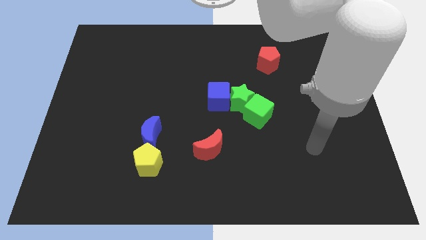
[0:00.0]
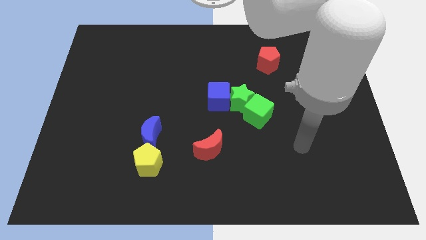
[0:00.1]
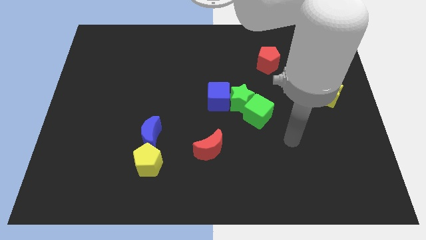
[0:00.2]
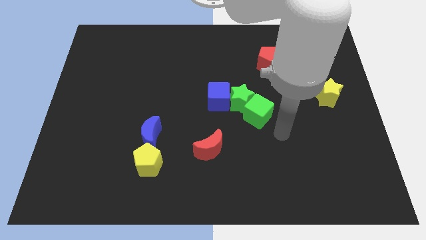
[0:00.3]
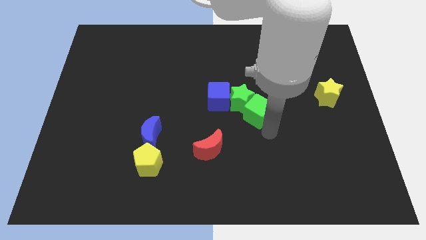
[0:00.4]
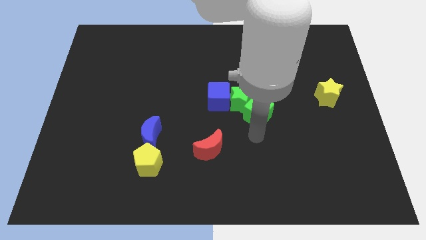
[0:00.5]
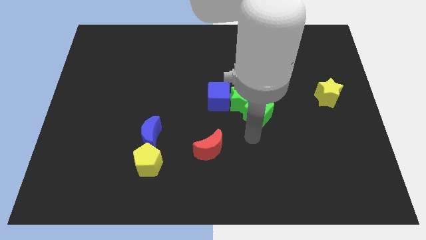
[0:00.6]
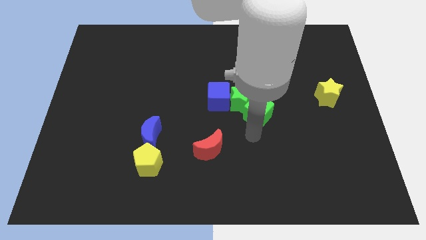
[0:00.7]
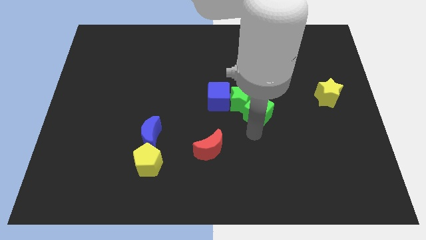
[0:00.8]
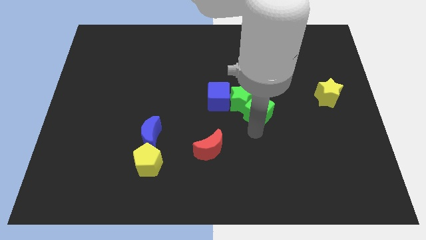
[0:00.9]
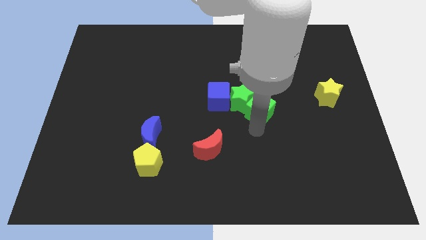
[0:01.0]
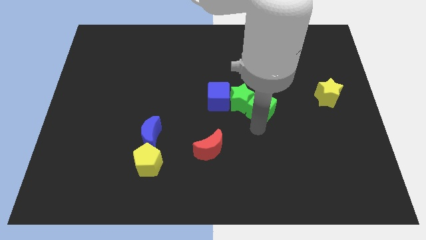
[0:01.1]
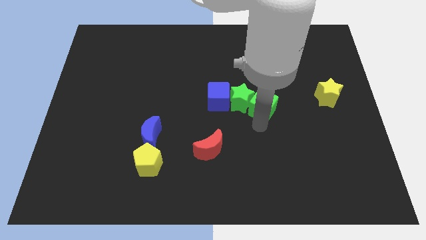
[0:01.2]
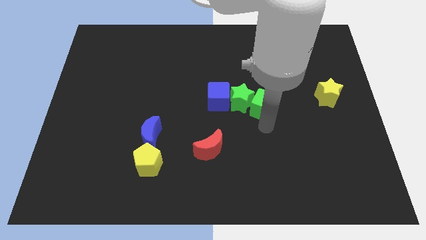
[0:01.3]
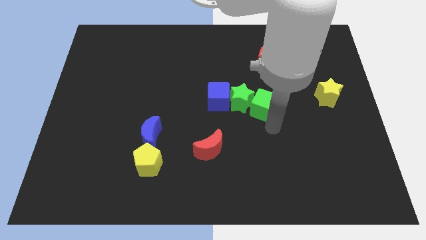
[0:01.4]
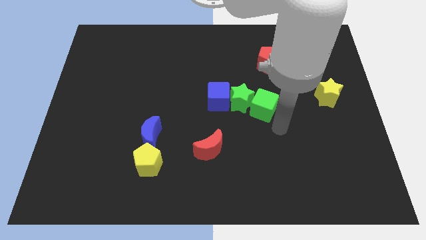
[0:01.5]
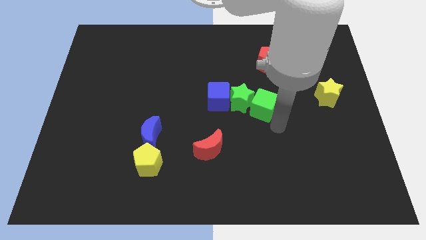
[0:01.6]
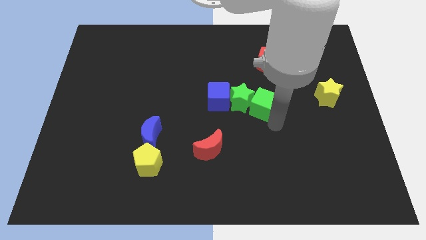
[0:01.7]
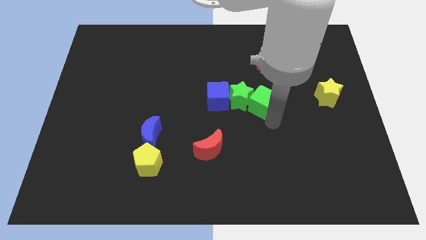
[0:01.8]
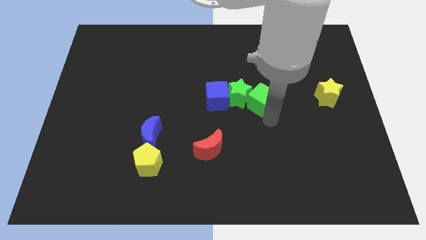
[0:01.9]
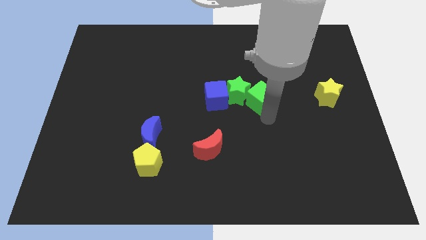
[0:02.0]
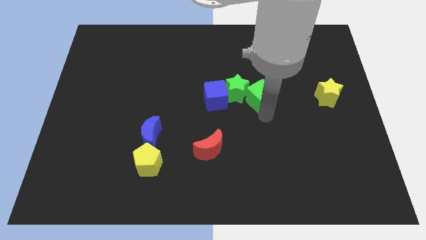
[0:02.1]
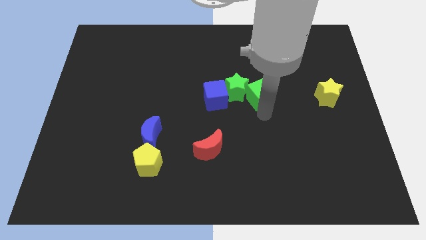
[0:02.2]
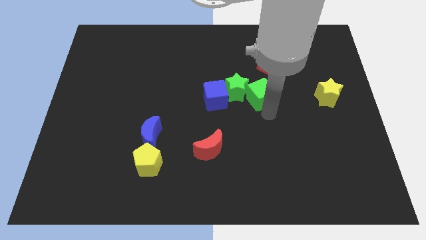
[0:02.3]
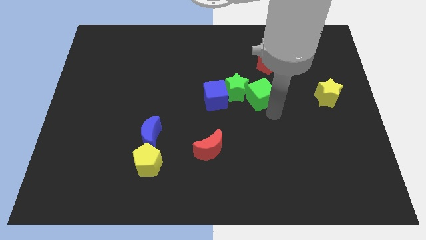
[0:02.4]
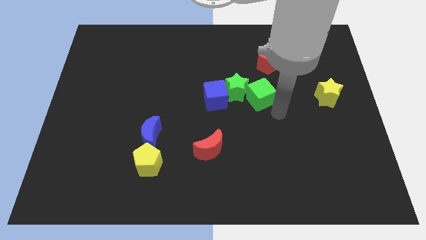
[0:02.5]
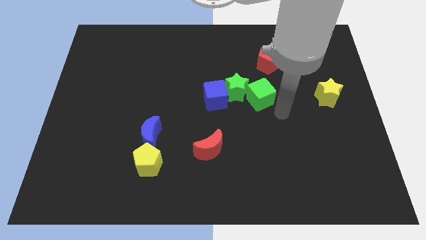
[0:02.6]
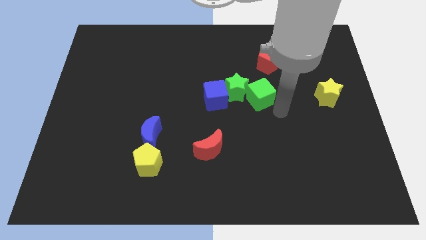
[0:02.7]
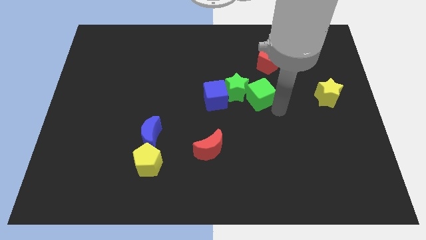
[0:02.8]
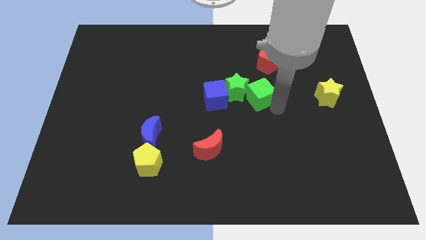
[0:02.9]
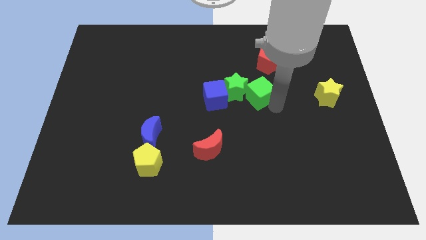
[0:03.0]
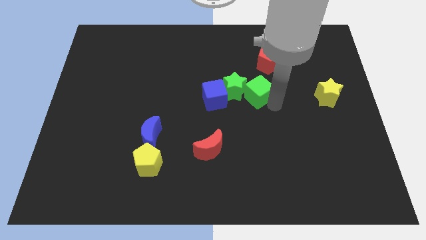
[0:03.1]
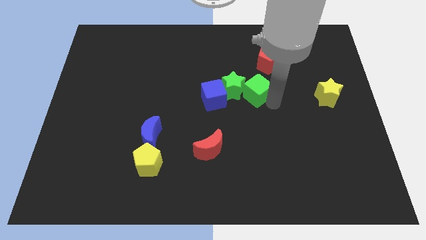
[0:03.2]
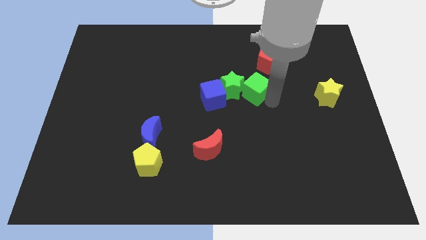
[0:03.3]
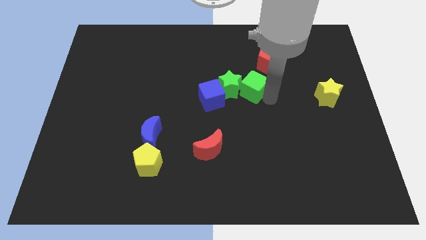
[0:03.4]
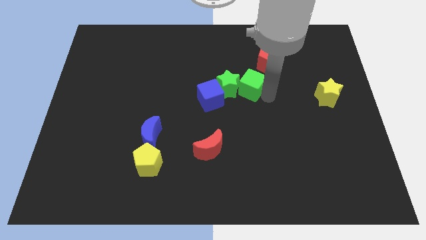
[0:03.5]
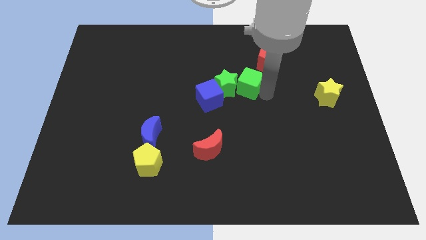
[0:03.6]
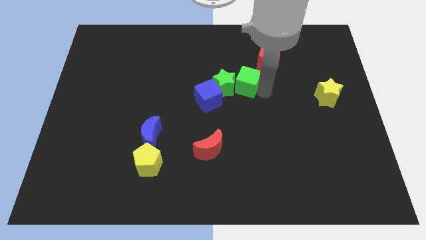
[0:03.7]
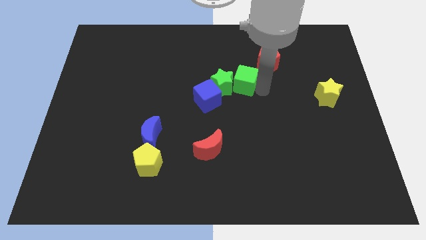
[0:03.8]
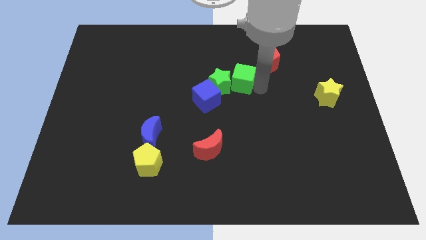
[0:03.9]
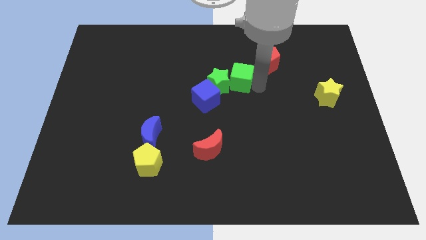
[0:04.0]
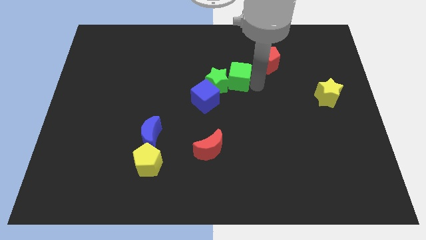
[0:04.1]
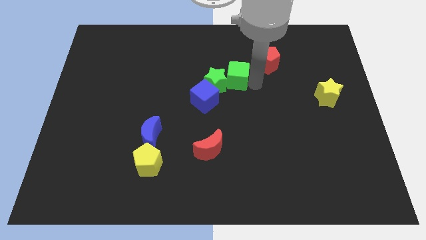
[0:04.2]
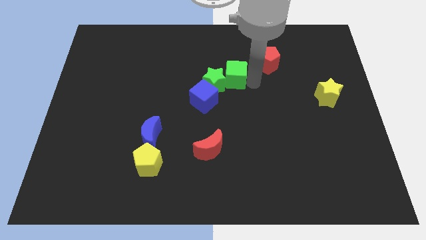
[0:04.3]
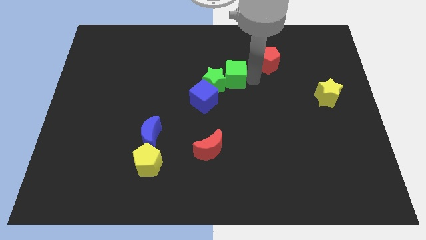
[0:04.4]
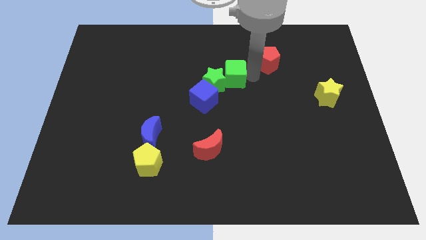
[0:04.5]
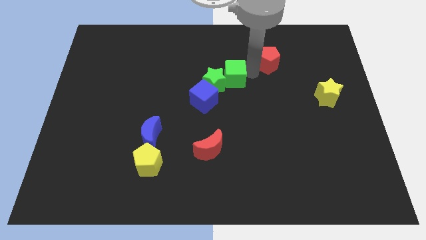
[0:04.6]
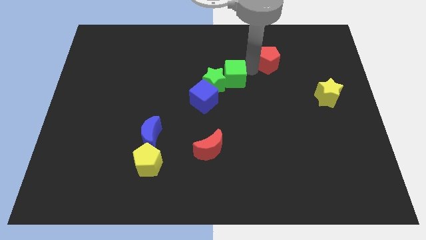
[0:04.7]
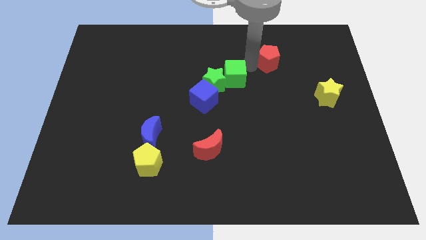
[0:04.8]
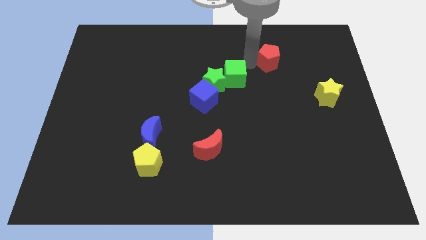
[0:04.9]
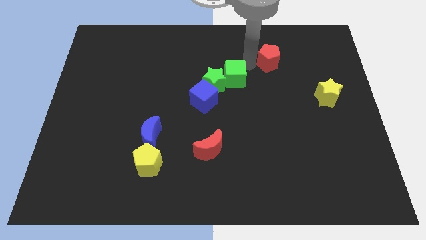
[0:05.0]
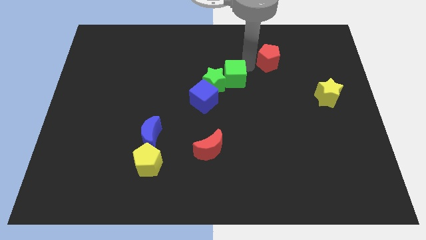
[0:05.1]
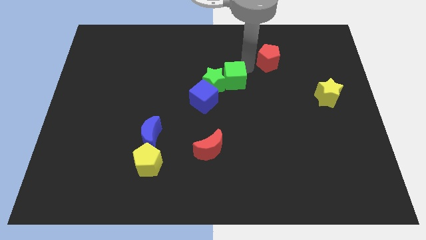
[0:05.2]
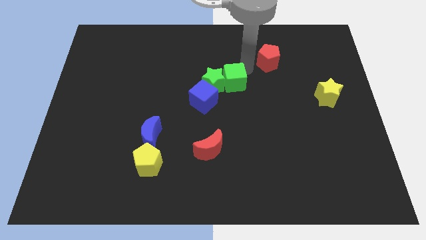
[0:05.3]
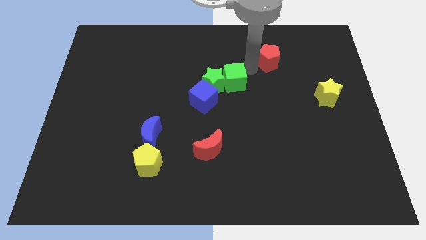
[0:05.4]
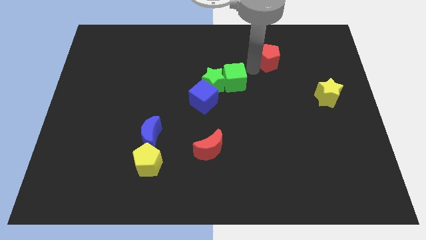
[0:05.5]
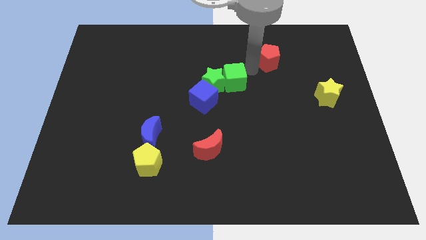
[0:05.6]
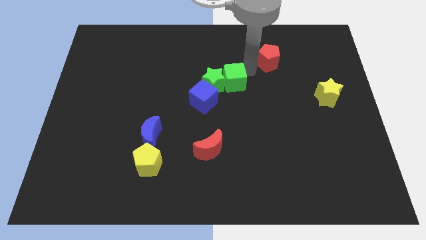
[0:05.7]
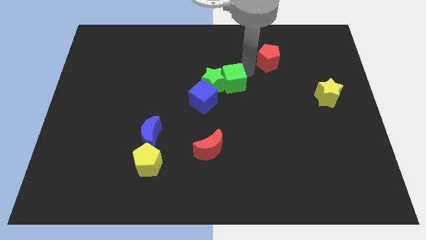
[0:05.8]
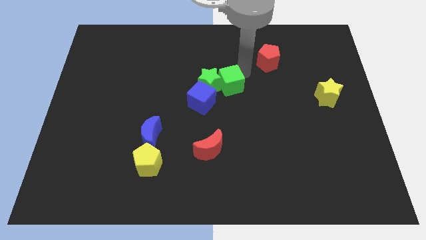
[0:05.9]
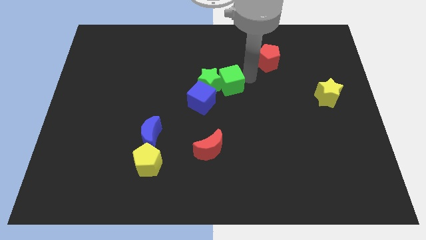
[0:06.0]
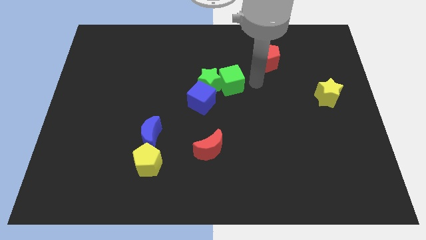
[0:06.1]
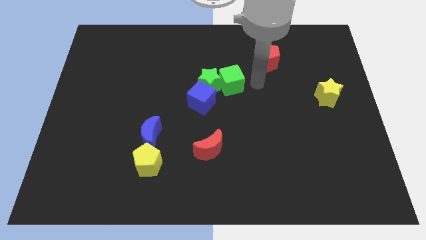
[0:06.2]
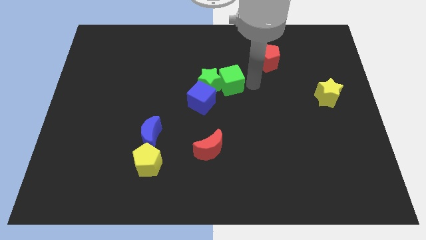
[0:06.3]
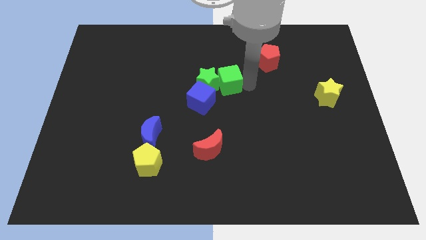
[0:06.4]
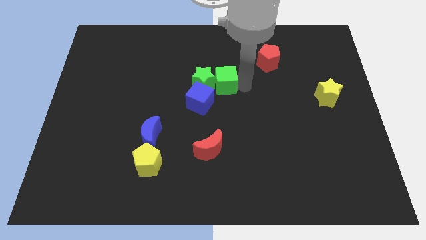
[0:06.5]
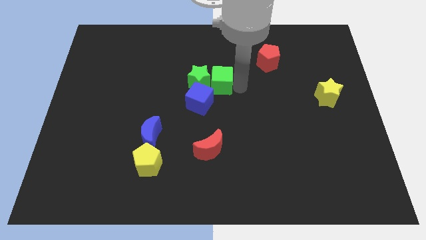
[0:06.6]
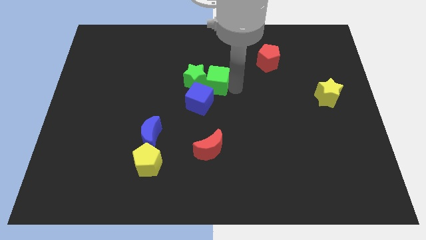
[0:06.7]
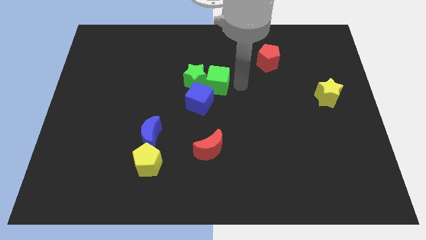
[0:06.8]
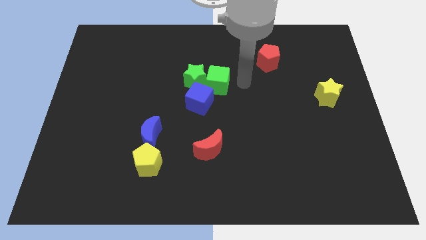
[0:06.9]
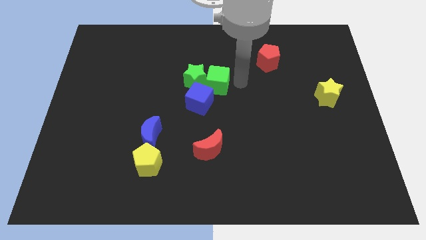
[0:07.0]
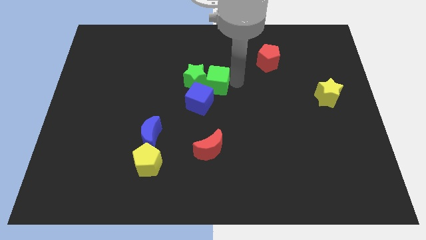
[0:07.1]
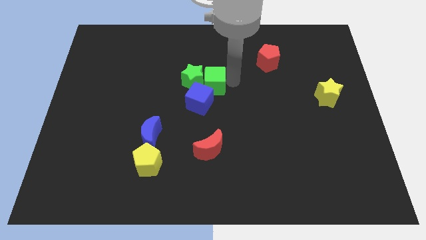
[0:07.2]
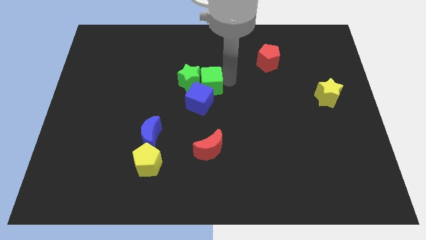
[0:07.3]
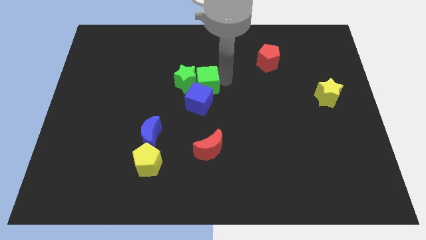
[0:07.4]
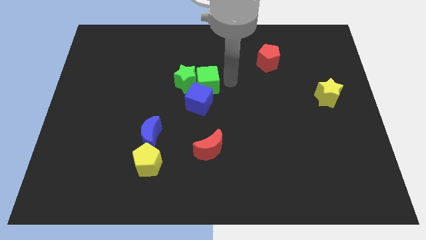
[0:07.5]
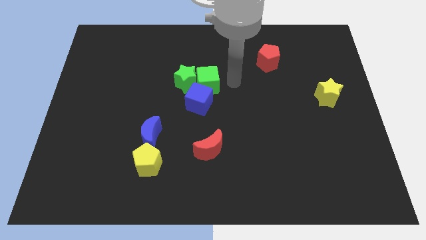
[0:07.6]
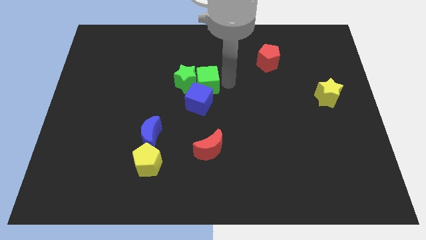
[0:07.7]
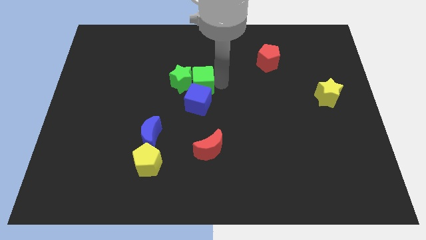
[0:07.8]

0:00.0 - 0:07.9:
put the green cube diagonally up and to the left of the blue cube

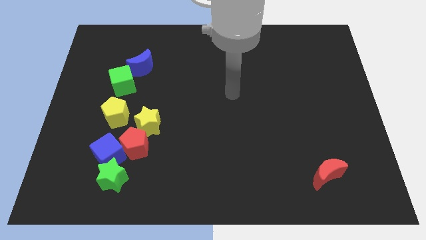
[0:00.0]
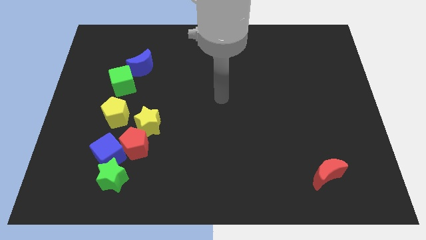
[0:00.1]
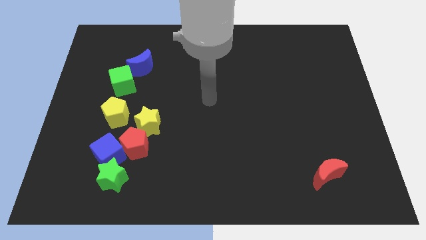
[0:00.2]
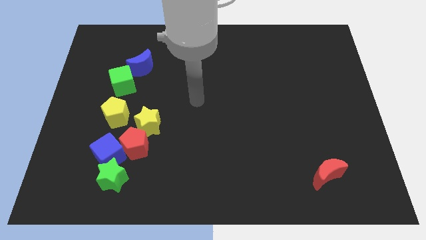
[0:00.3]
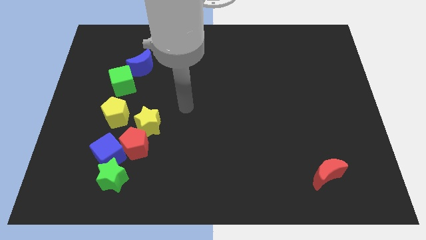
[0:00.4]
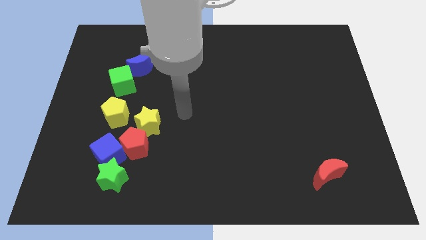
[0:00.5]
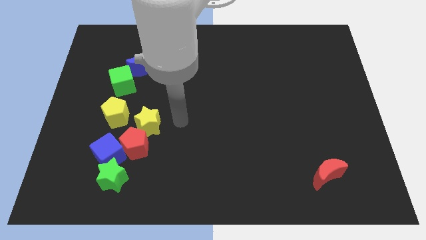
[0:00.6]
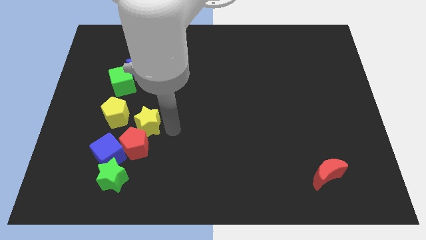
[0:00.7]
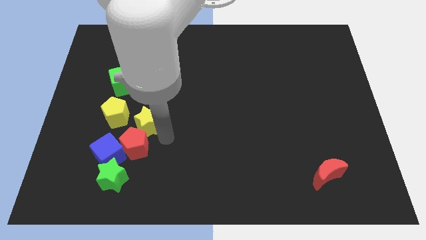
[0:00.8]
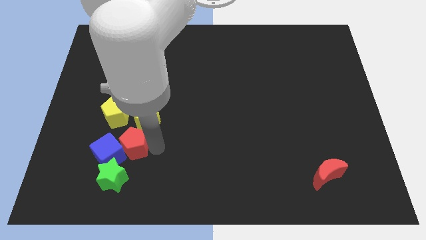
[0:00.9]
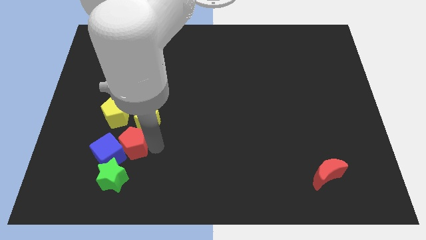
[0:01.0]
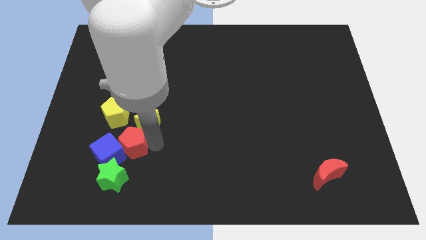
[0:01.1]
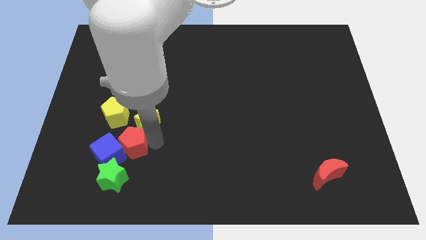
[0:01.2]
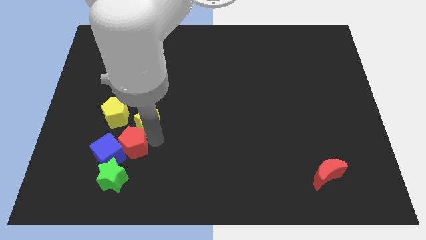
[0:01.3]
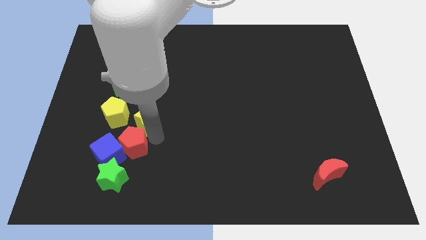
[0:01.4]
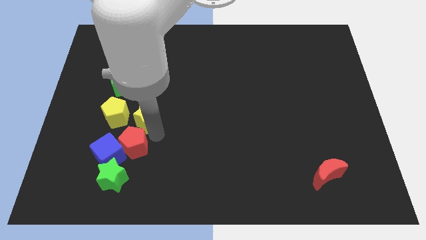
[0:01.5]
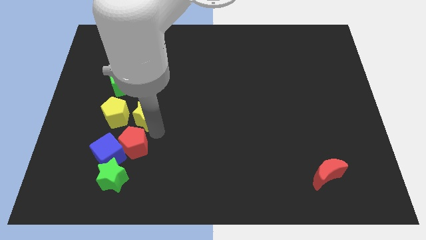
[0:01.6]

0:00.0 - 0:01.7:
slide the yellow star diagonally down and to the right of the green cube
